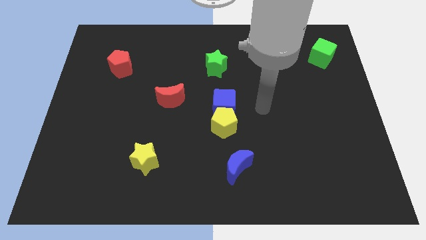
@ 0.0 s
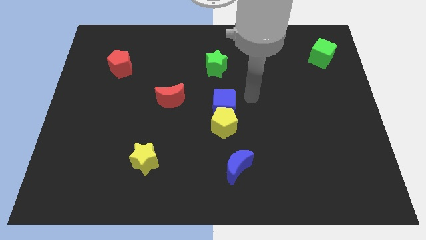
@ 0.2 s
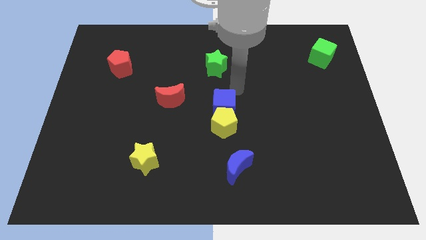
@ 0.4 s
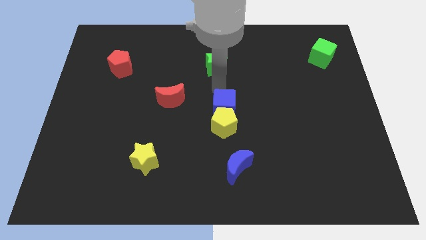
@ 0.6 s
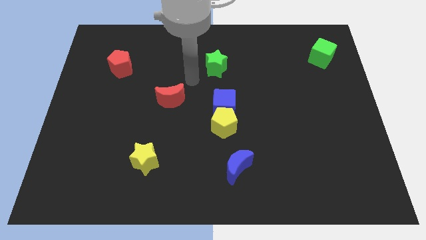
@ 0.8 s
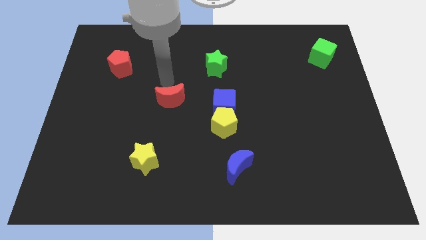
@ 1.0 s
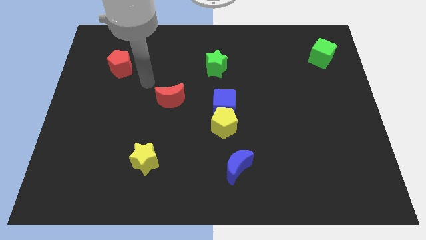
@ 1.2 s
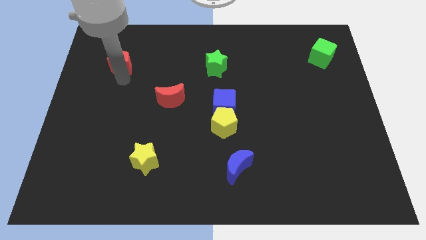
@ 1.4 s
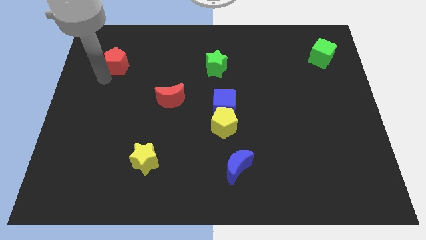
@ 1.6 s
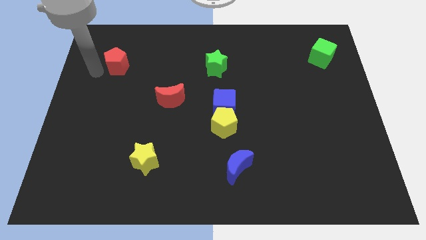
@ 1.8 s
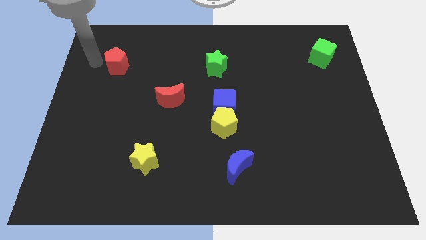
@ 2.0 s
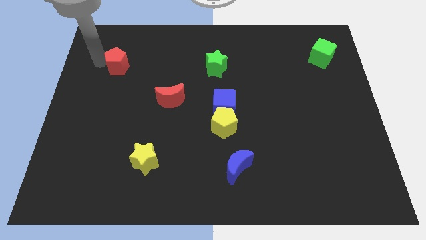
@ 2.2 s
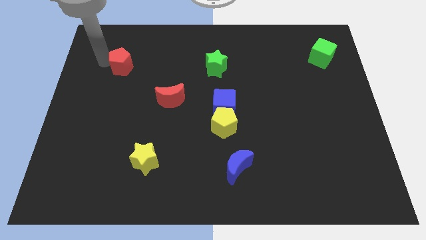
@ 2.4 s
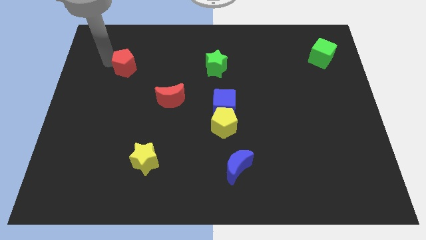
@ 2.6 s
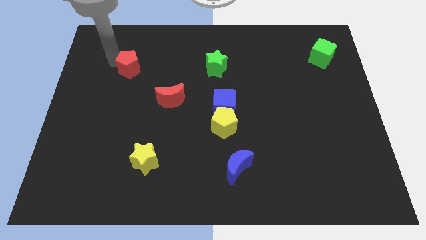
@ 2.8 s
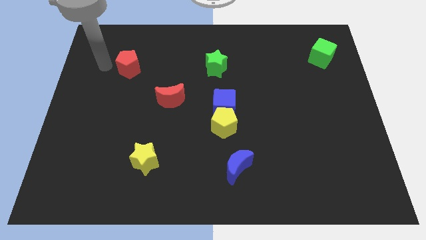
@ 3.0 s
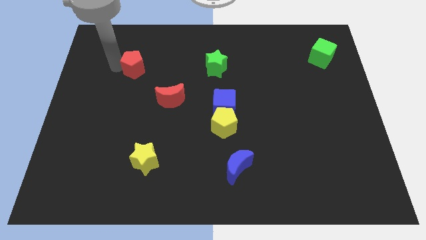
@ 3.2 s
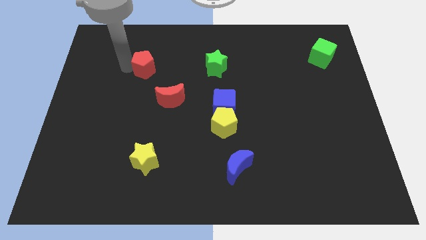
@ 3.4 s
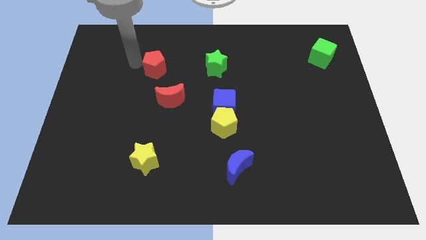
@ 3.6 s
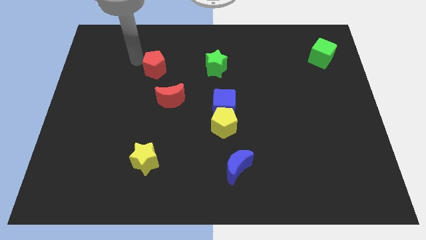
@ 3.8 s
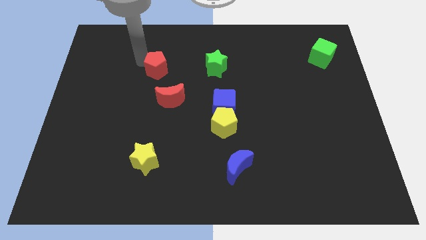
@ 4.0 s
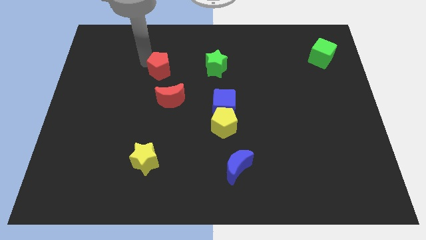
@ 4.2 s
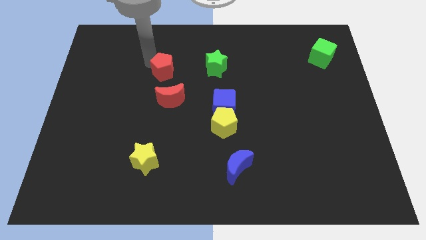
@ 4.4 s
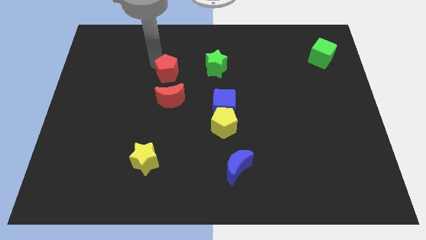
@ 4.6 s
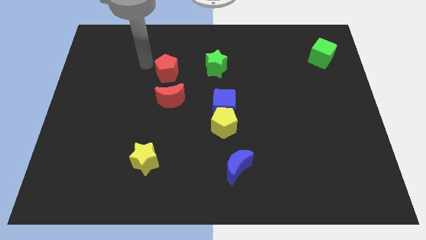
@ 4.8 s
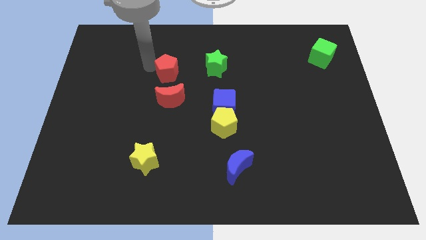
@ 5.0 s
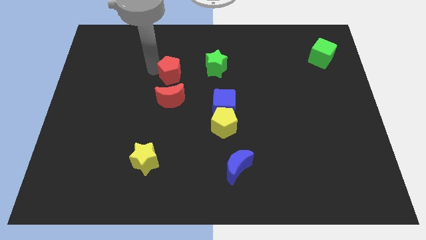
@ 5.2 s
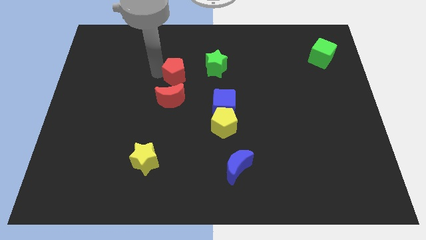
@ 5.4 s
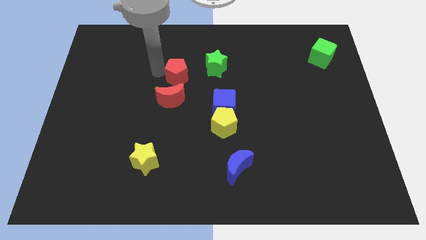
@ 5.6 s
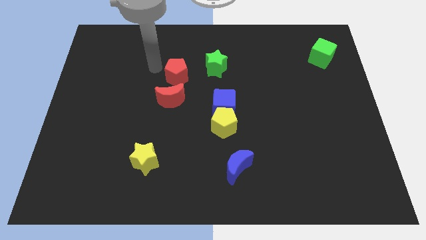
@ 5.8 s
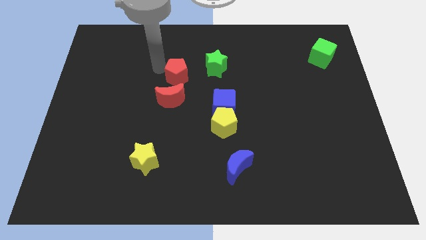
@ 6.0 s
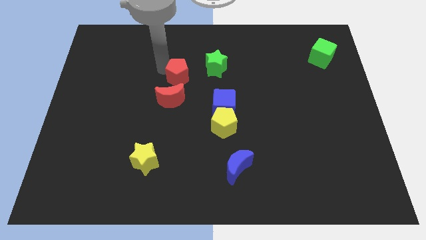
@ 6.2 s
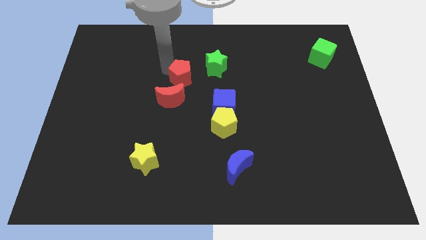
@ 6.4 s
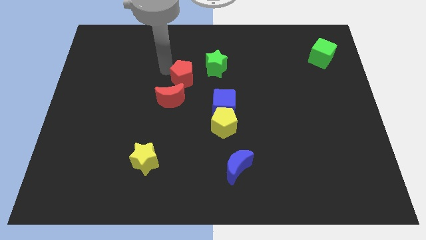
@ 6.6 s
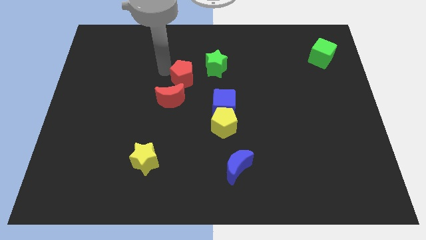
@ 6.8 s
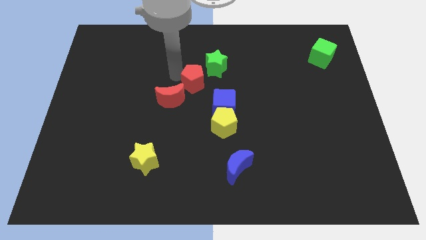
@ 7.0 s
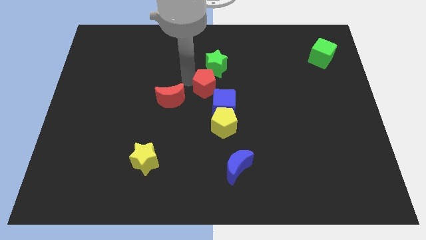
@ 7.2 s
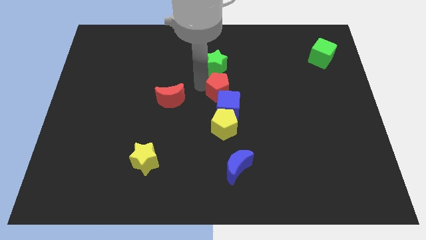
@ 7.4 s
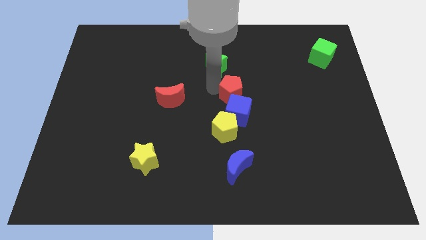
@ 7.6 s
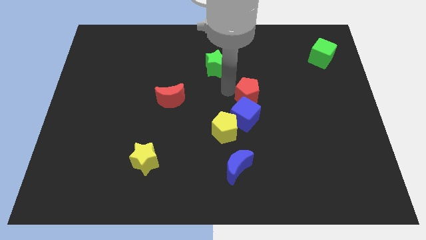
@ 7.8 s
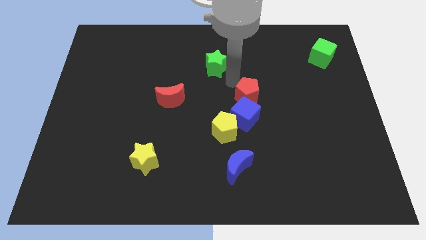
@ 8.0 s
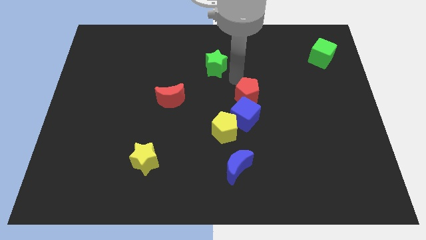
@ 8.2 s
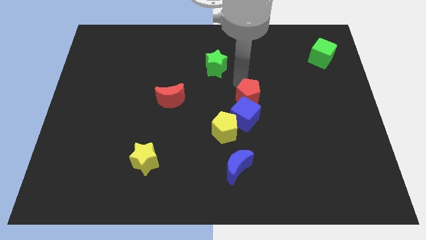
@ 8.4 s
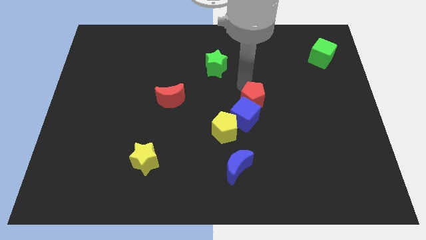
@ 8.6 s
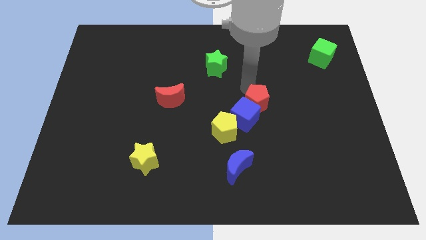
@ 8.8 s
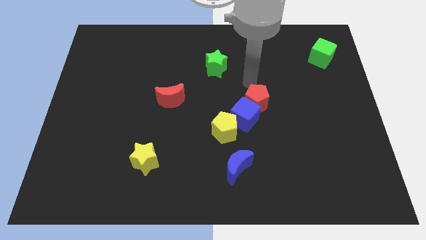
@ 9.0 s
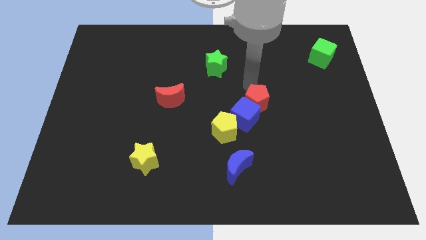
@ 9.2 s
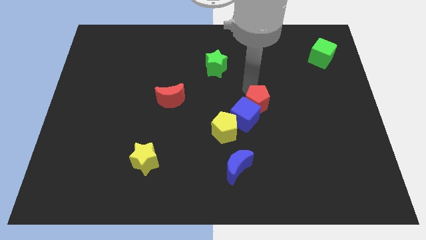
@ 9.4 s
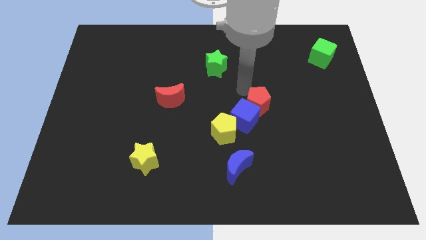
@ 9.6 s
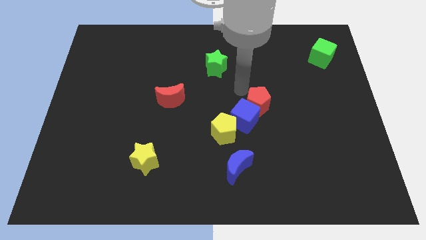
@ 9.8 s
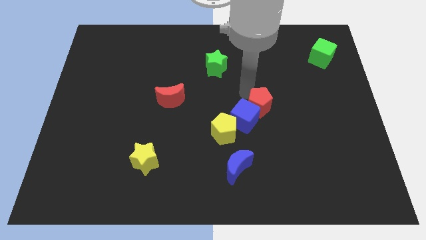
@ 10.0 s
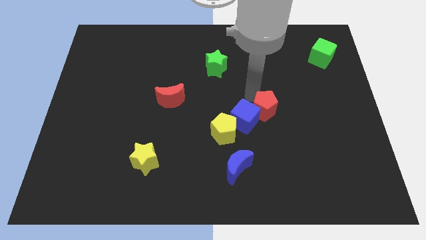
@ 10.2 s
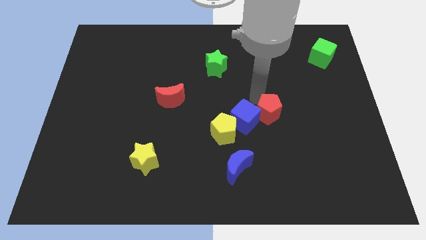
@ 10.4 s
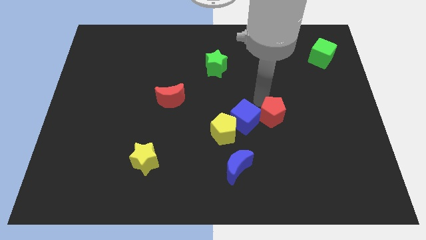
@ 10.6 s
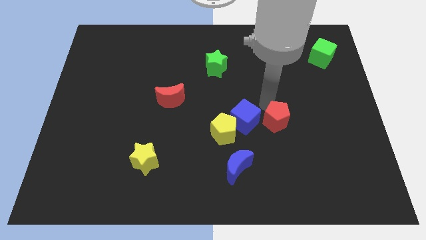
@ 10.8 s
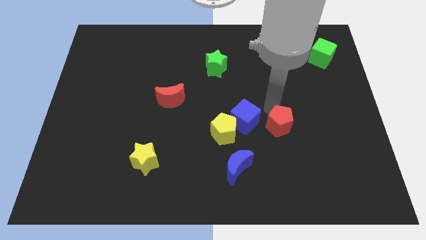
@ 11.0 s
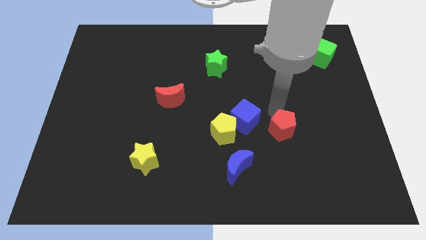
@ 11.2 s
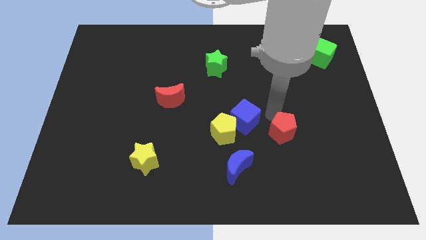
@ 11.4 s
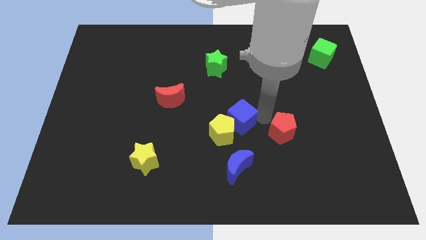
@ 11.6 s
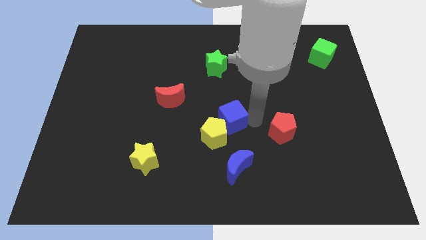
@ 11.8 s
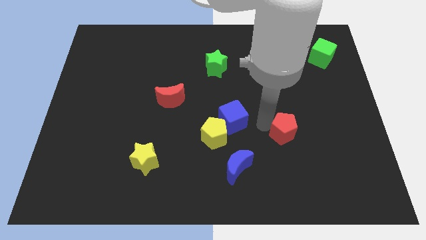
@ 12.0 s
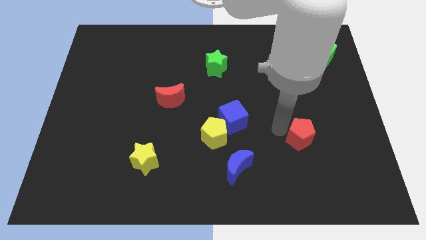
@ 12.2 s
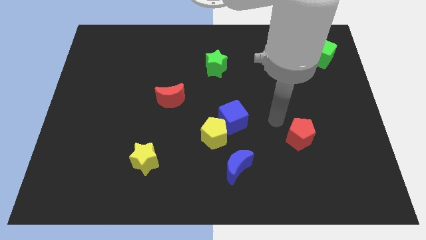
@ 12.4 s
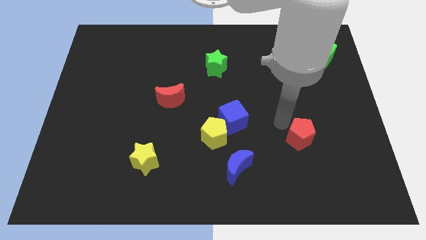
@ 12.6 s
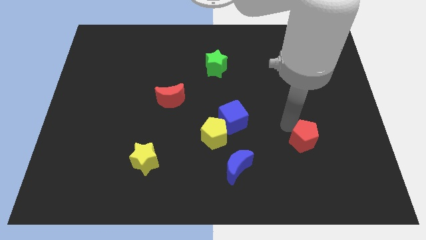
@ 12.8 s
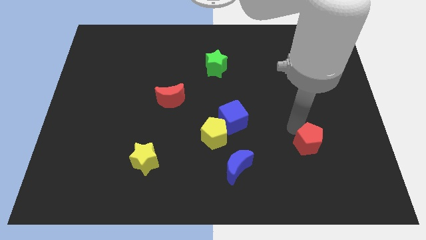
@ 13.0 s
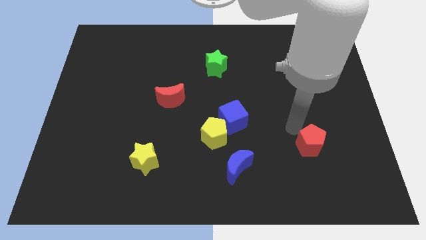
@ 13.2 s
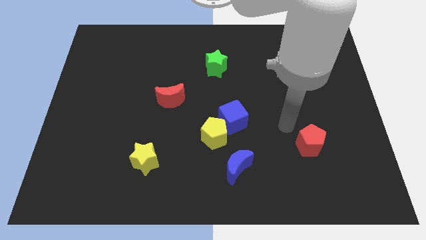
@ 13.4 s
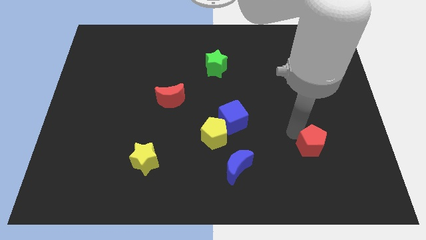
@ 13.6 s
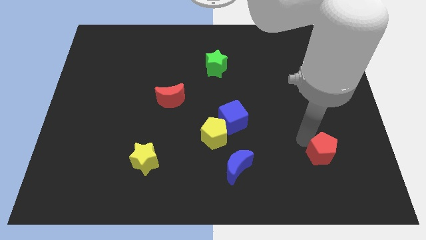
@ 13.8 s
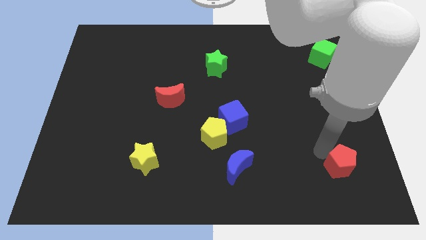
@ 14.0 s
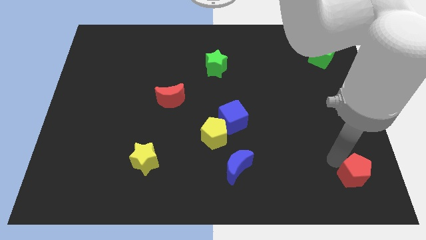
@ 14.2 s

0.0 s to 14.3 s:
slide the red pentagon to the bottom right of the board
